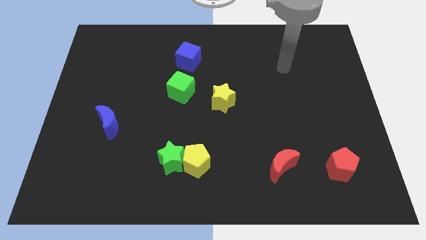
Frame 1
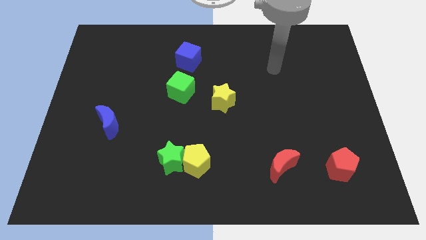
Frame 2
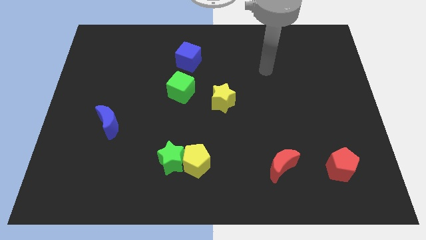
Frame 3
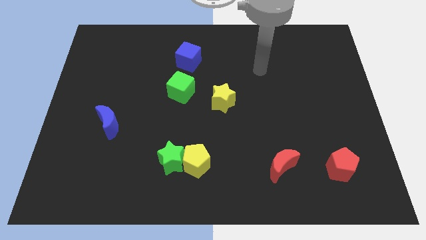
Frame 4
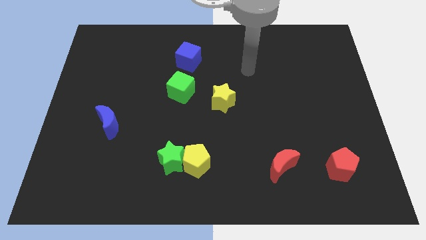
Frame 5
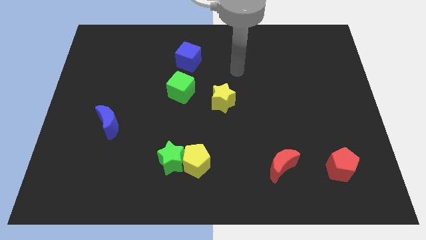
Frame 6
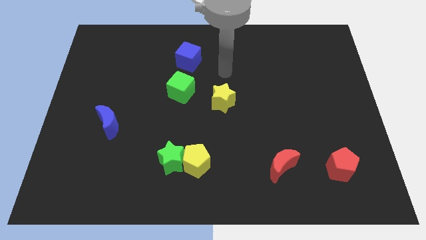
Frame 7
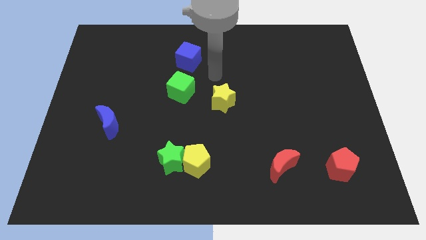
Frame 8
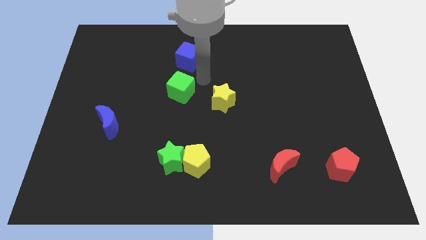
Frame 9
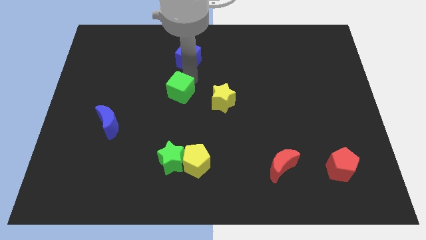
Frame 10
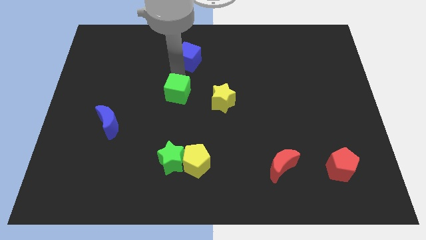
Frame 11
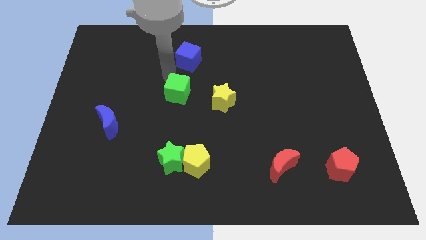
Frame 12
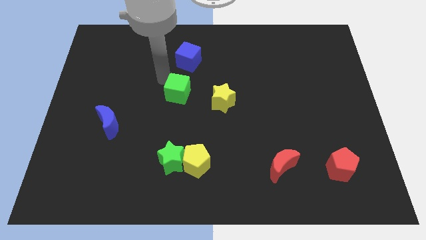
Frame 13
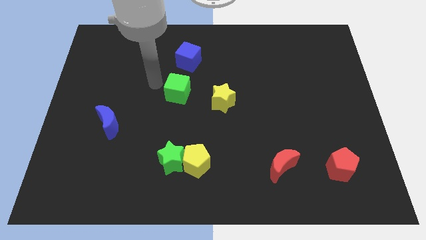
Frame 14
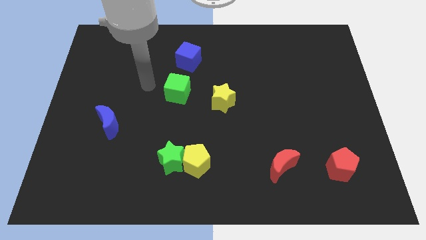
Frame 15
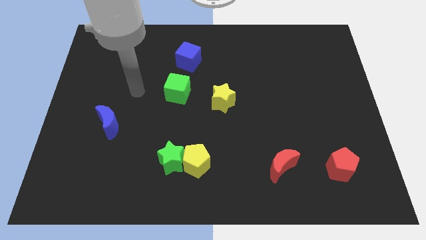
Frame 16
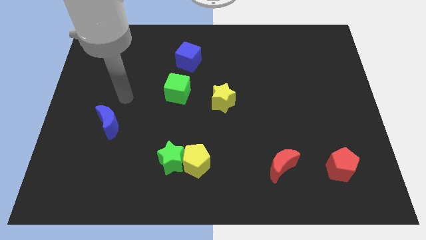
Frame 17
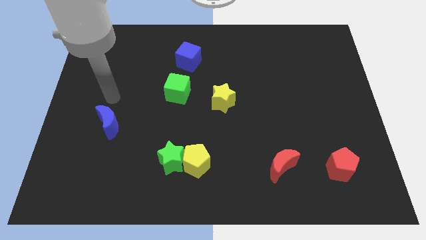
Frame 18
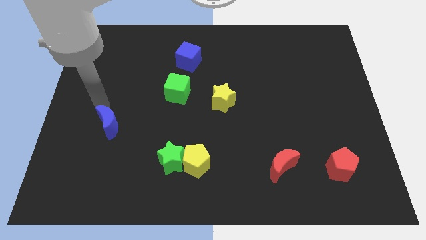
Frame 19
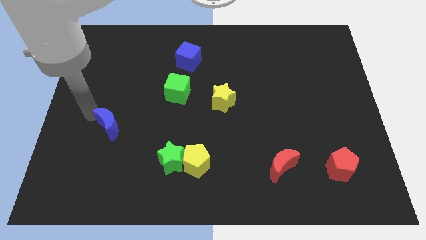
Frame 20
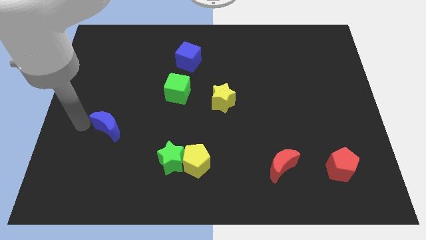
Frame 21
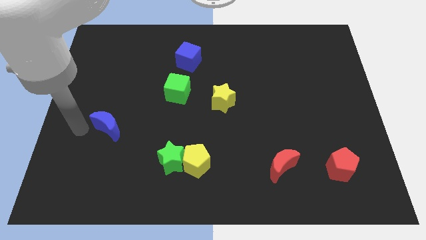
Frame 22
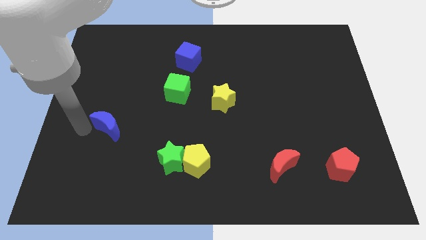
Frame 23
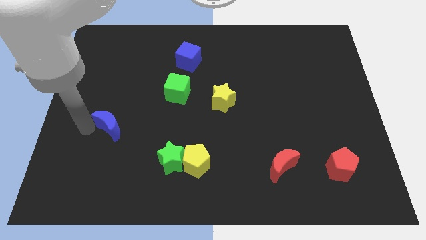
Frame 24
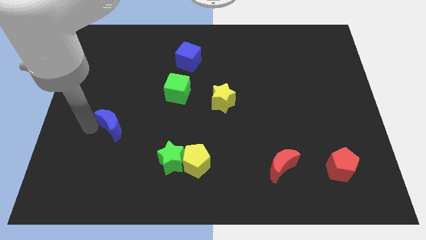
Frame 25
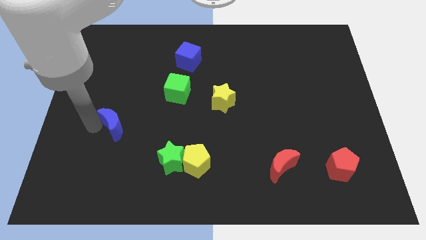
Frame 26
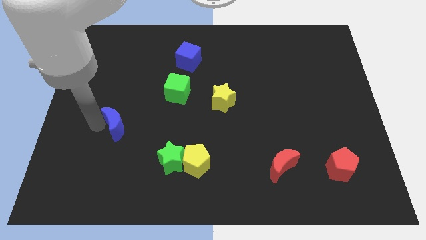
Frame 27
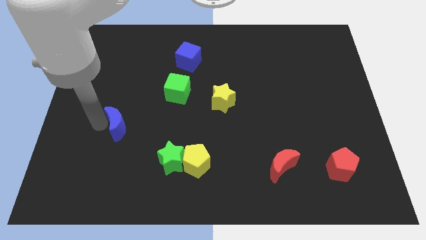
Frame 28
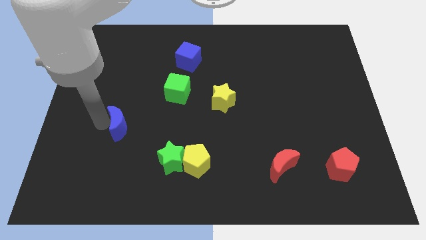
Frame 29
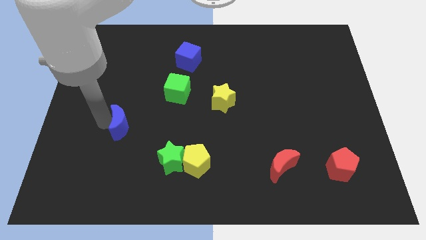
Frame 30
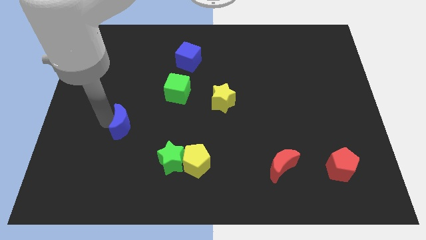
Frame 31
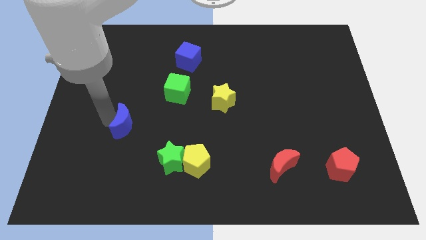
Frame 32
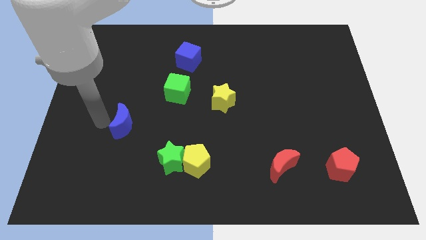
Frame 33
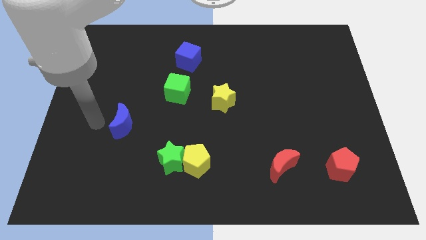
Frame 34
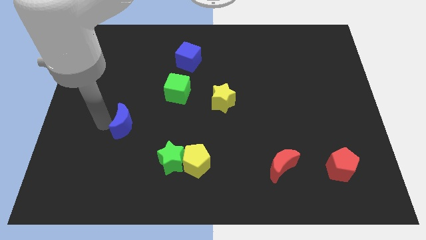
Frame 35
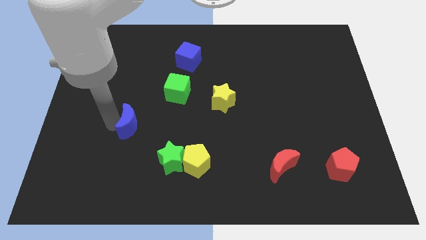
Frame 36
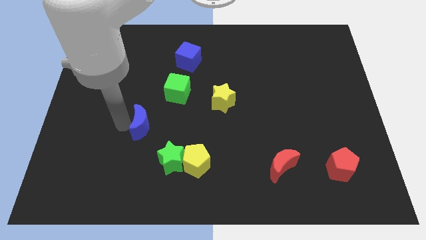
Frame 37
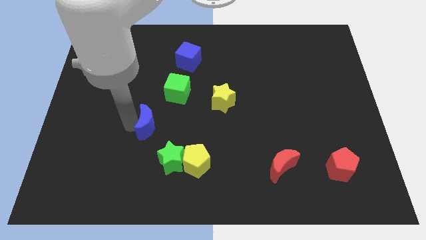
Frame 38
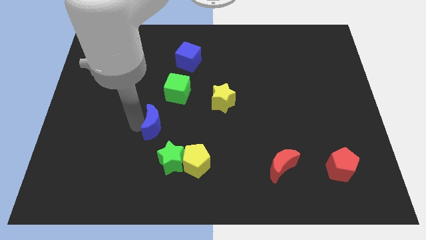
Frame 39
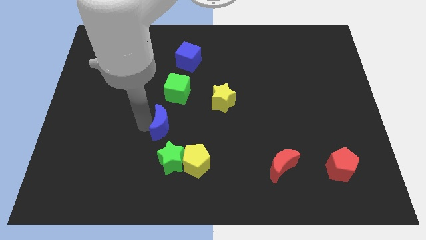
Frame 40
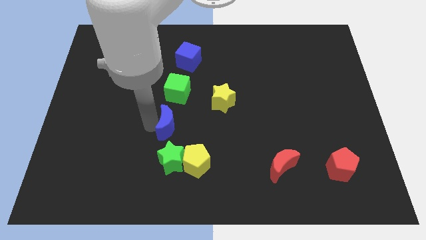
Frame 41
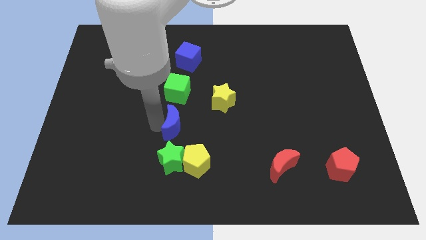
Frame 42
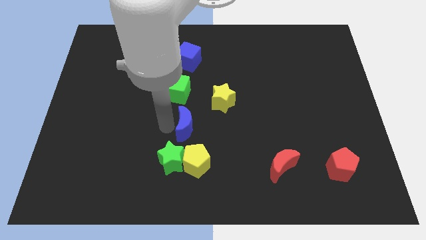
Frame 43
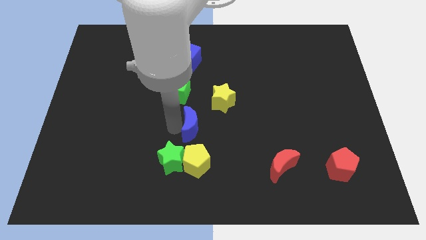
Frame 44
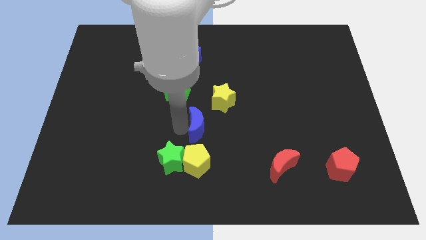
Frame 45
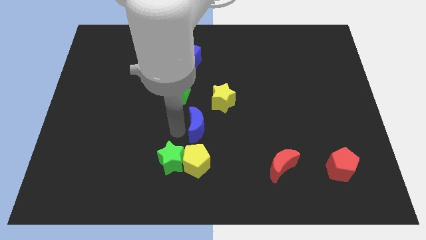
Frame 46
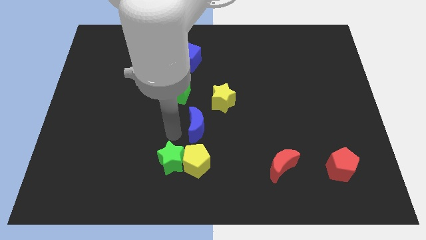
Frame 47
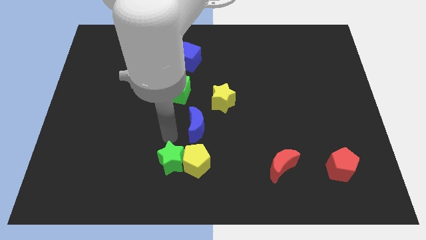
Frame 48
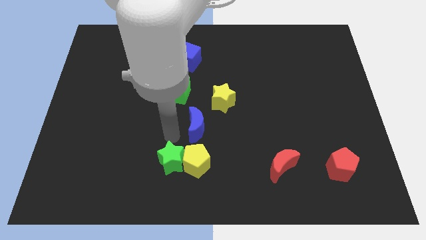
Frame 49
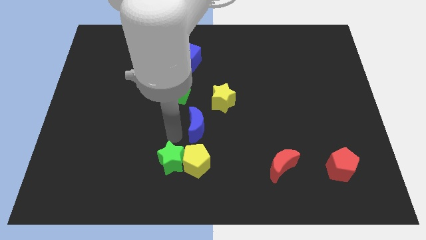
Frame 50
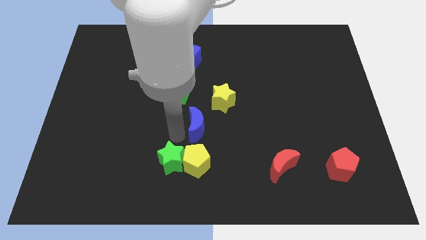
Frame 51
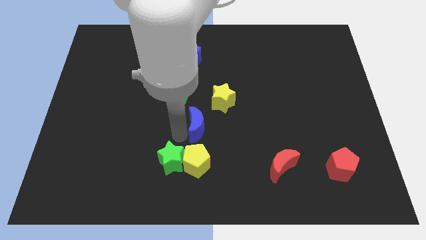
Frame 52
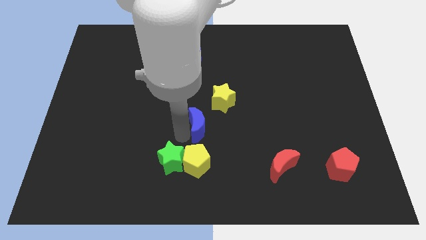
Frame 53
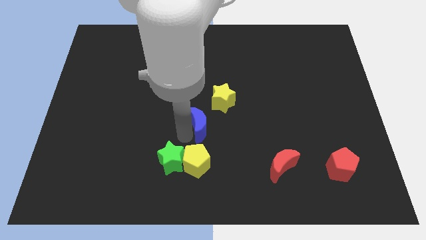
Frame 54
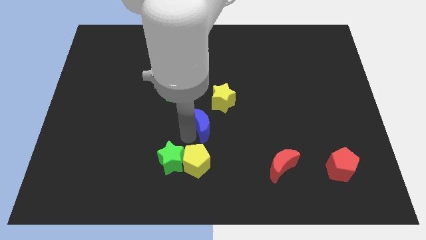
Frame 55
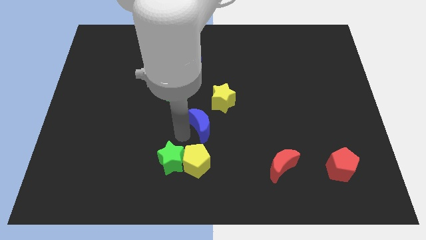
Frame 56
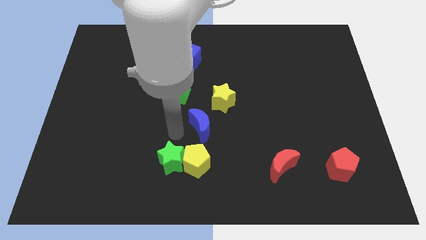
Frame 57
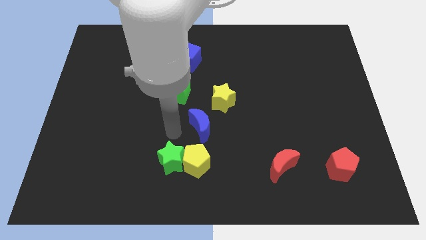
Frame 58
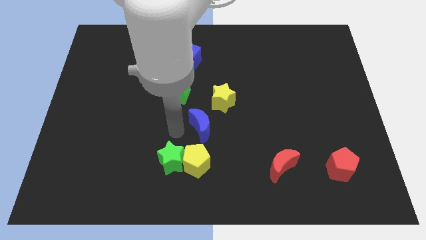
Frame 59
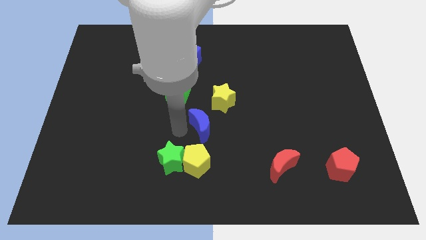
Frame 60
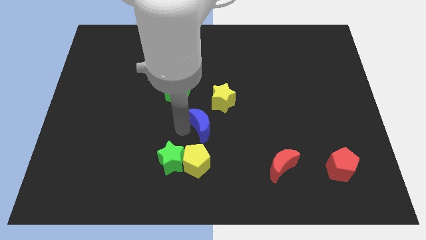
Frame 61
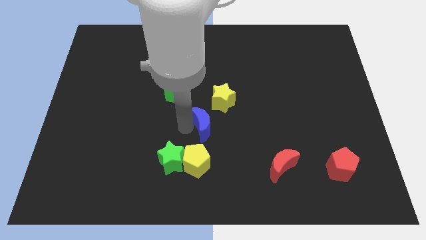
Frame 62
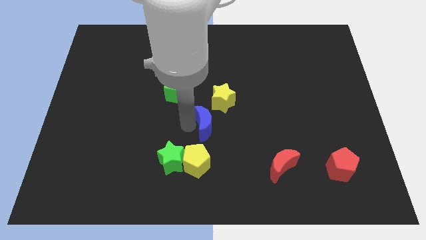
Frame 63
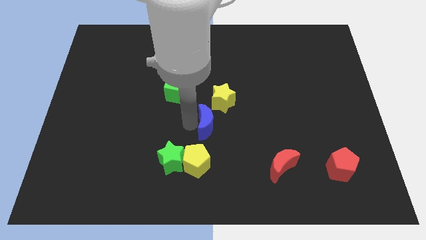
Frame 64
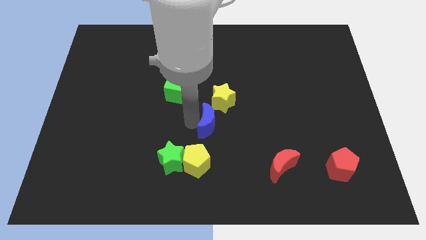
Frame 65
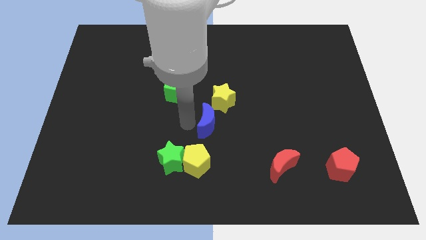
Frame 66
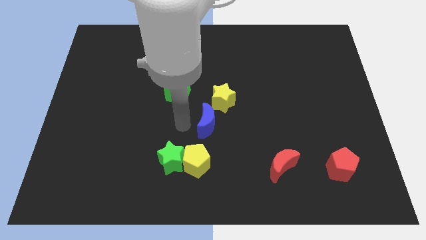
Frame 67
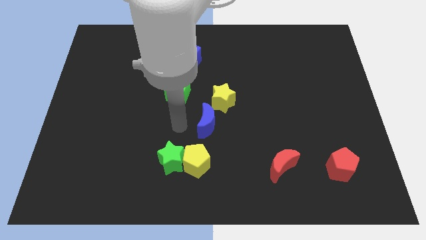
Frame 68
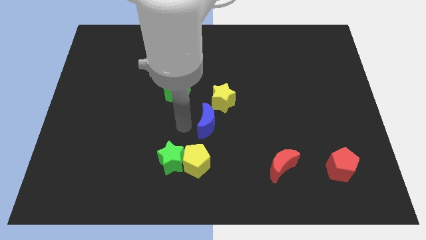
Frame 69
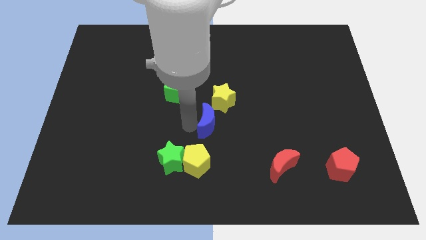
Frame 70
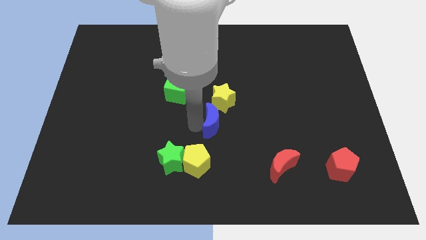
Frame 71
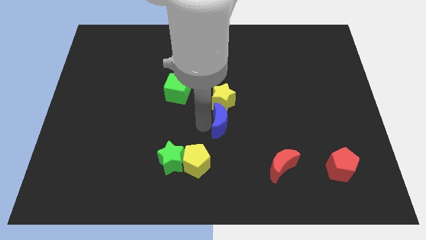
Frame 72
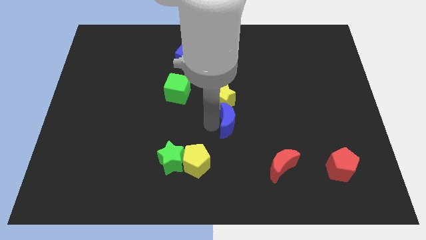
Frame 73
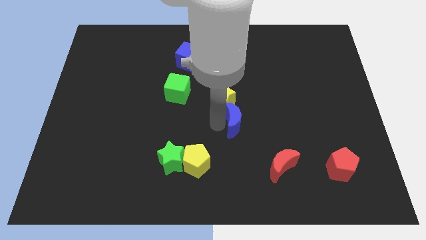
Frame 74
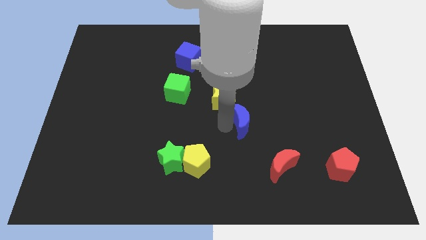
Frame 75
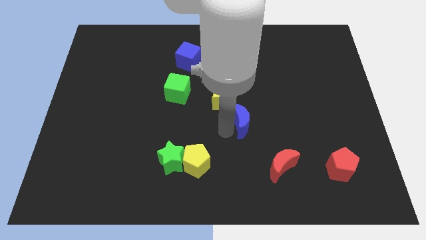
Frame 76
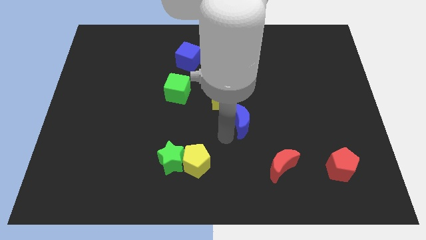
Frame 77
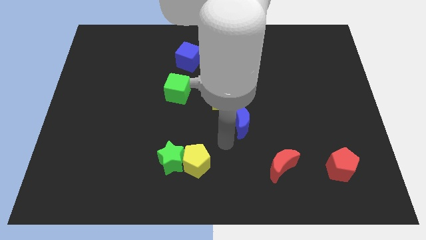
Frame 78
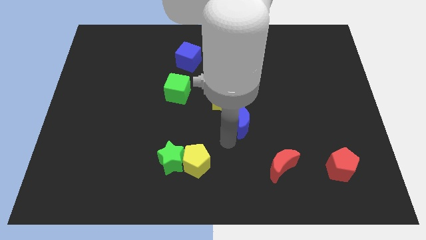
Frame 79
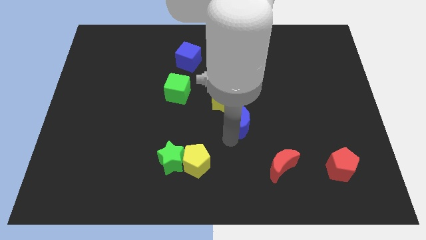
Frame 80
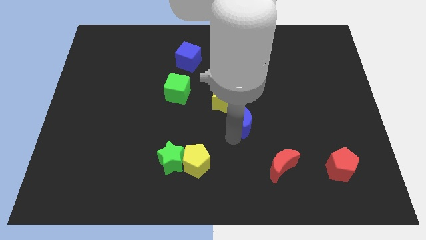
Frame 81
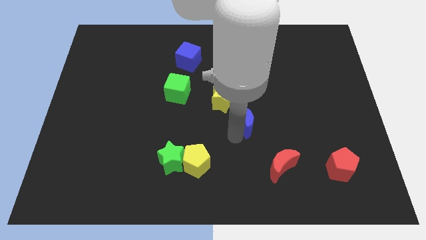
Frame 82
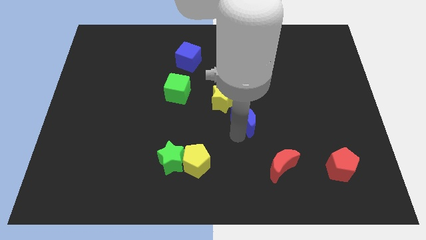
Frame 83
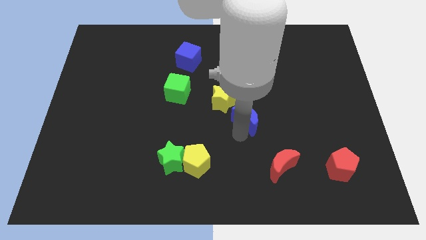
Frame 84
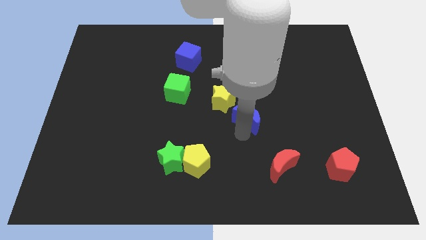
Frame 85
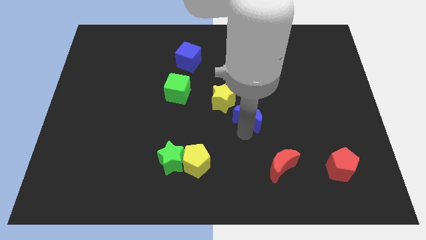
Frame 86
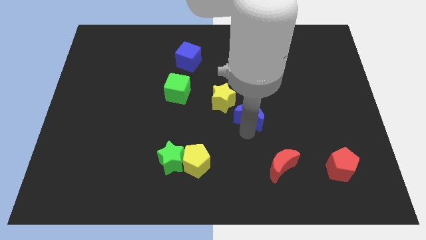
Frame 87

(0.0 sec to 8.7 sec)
slide the blue moon to the right side of the yellow star
